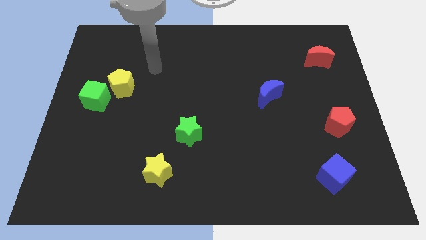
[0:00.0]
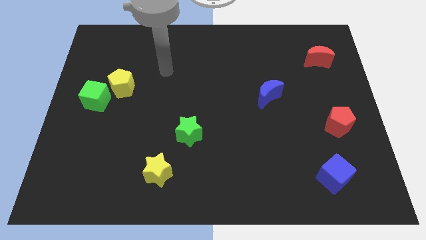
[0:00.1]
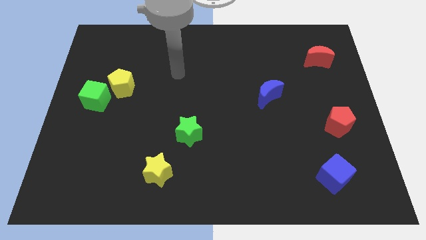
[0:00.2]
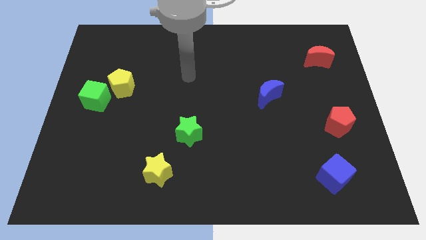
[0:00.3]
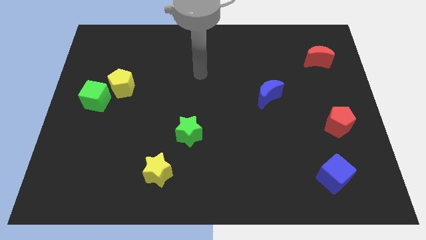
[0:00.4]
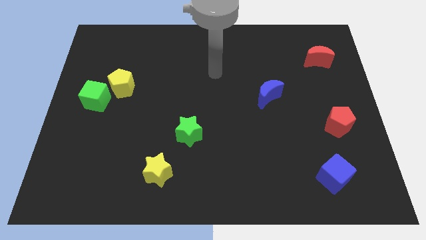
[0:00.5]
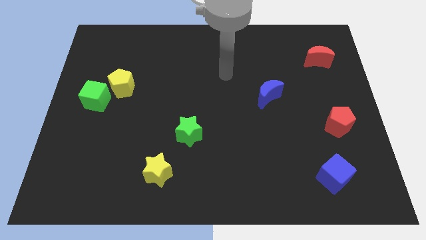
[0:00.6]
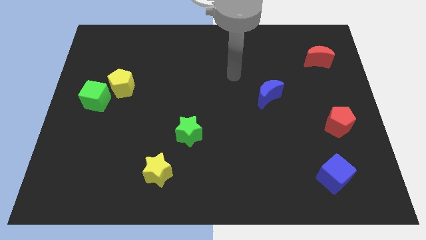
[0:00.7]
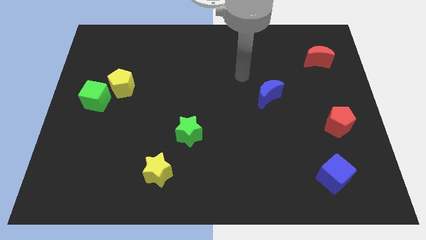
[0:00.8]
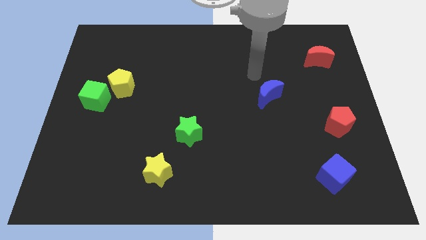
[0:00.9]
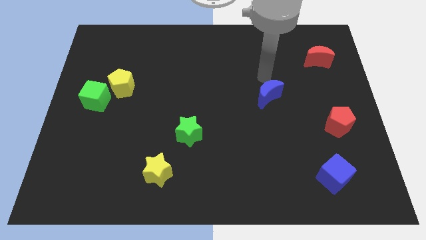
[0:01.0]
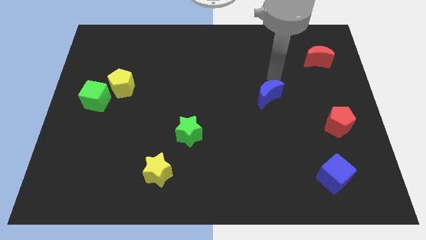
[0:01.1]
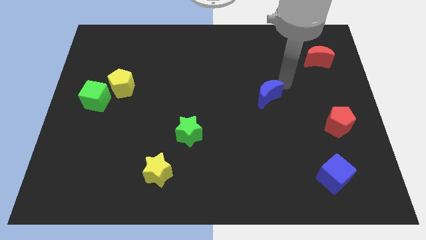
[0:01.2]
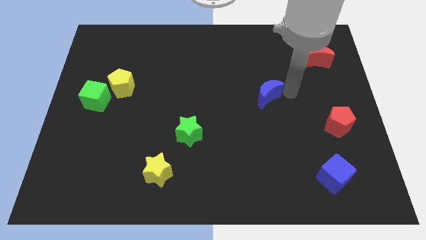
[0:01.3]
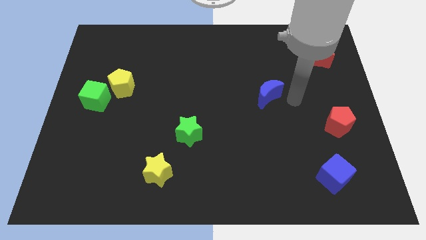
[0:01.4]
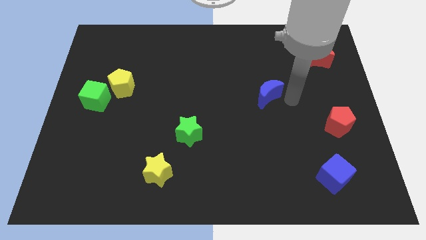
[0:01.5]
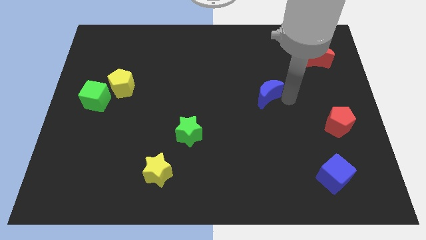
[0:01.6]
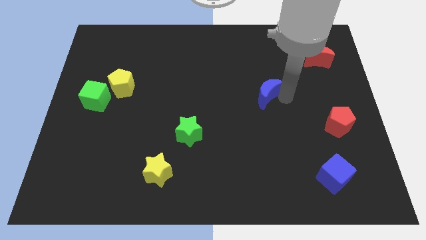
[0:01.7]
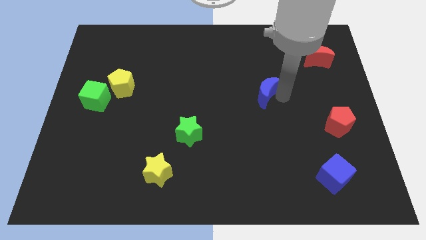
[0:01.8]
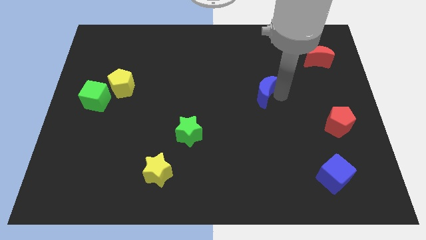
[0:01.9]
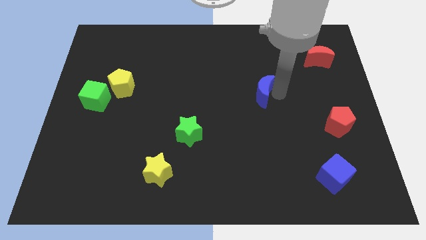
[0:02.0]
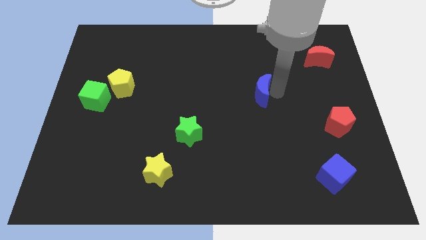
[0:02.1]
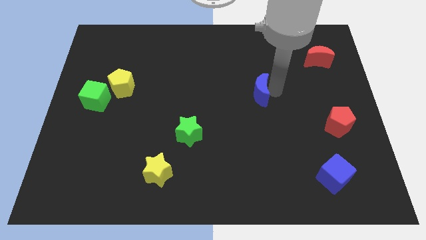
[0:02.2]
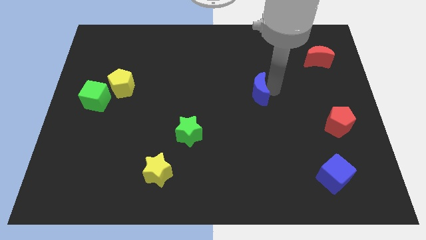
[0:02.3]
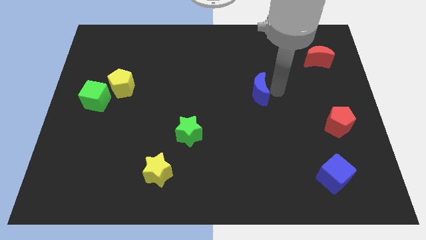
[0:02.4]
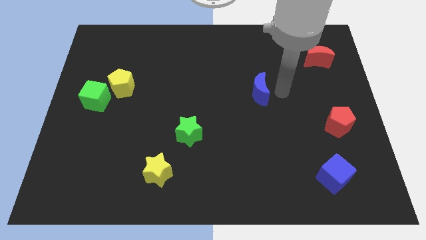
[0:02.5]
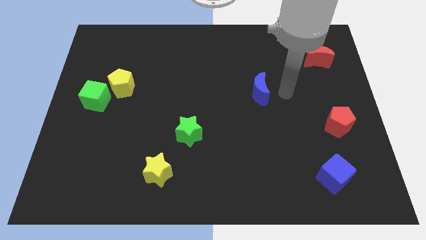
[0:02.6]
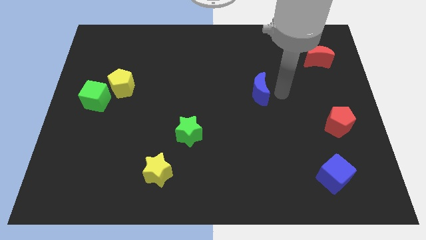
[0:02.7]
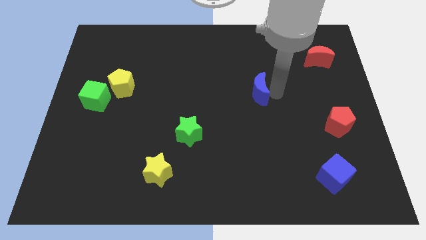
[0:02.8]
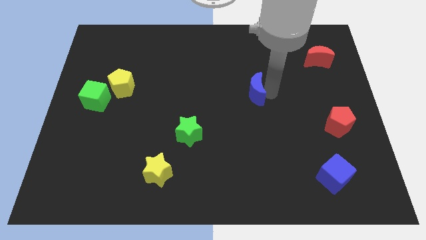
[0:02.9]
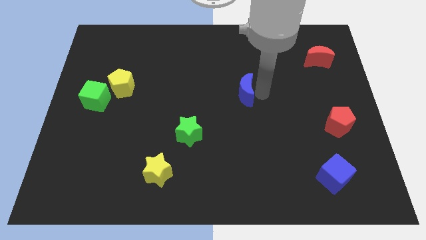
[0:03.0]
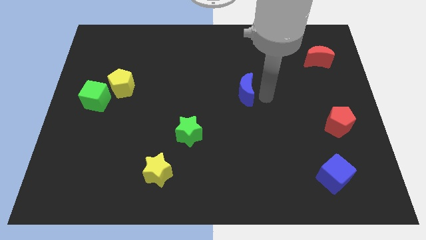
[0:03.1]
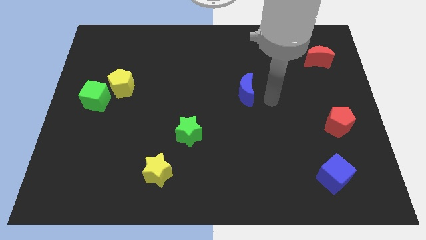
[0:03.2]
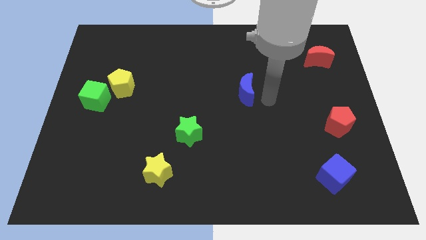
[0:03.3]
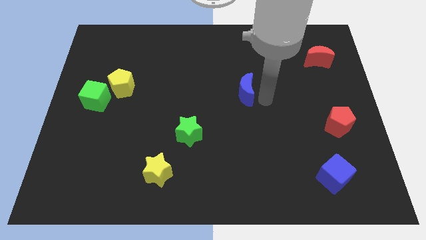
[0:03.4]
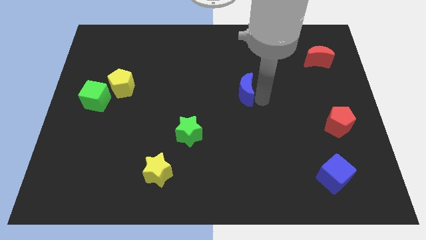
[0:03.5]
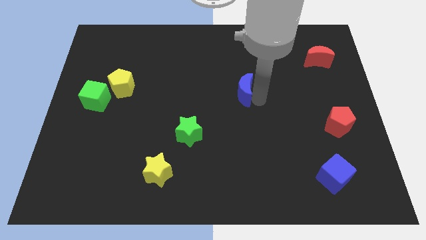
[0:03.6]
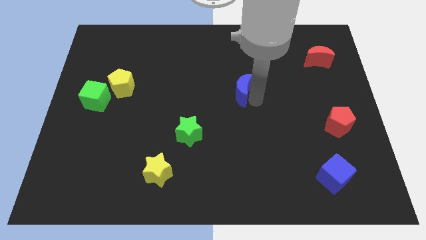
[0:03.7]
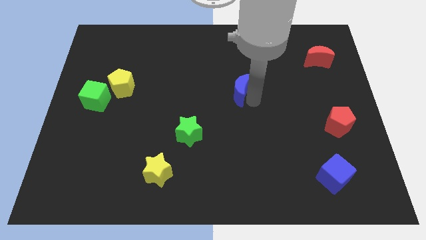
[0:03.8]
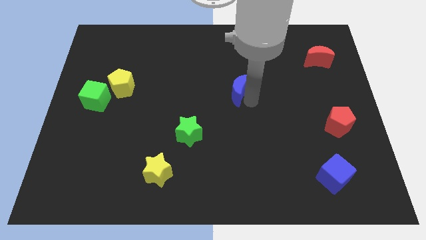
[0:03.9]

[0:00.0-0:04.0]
move the blue moon a little bit left

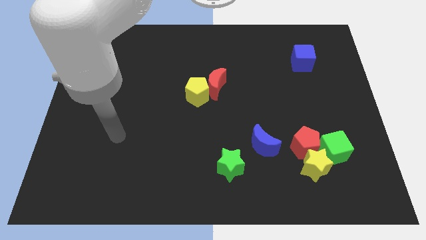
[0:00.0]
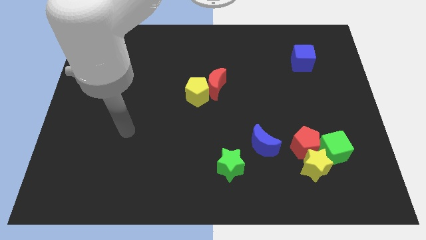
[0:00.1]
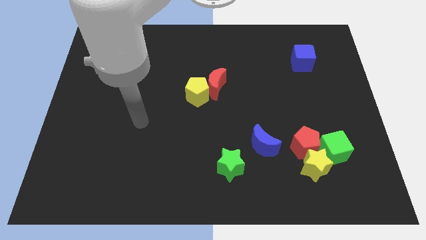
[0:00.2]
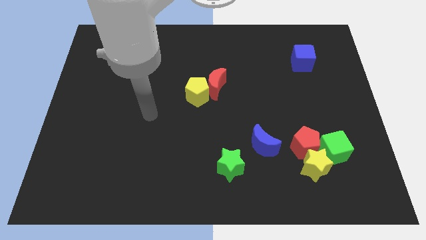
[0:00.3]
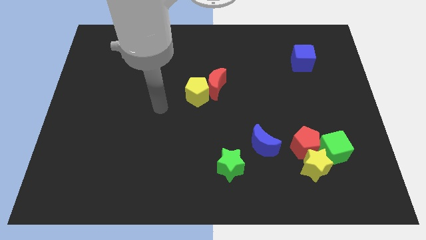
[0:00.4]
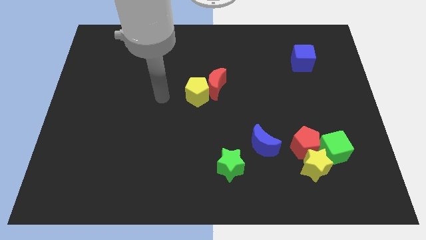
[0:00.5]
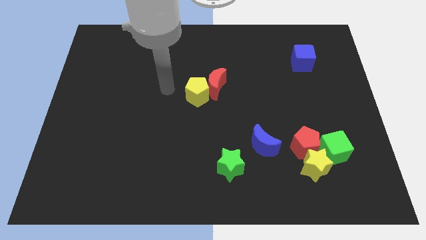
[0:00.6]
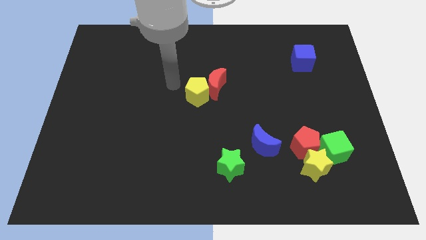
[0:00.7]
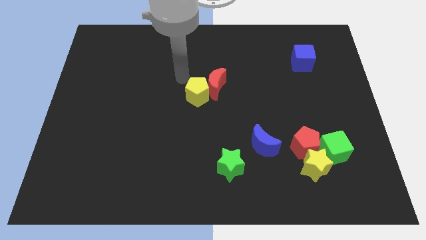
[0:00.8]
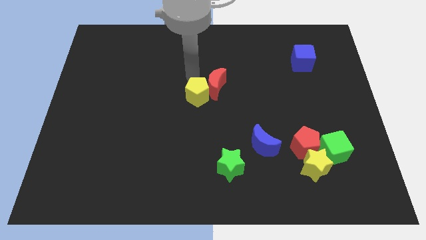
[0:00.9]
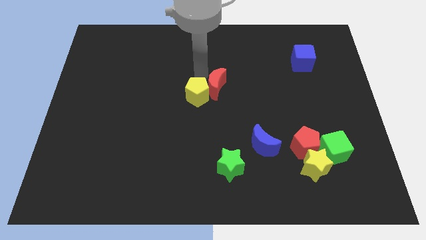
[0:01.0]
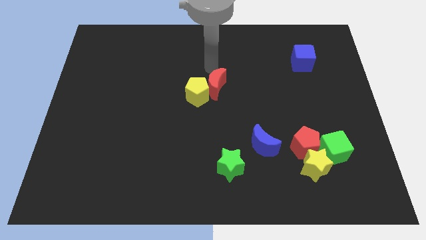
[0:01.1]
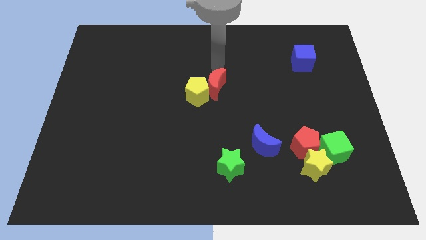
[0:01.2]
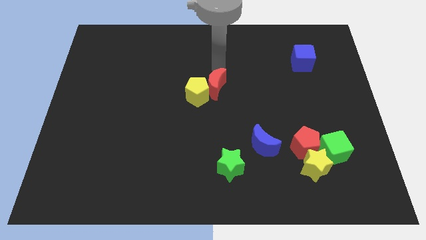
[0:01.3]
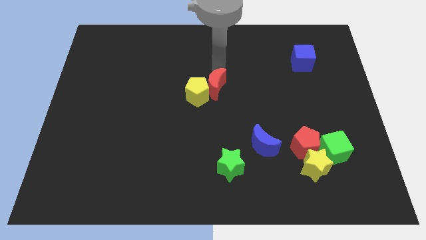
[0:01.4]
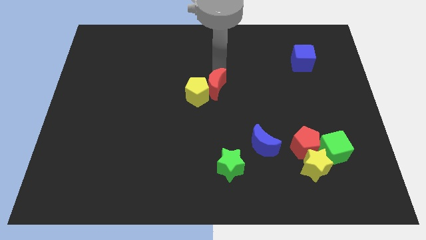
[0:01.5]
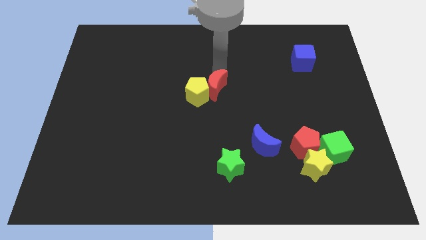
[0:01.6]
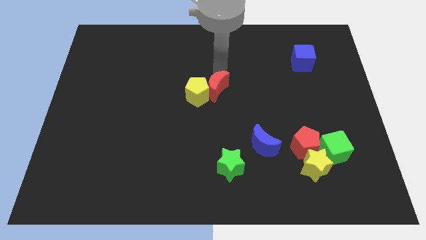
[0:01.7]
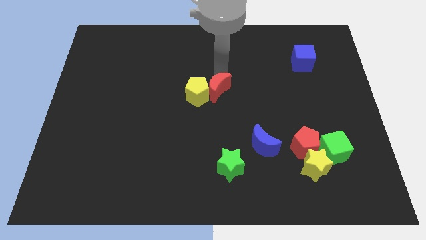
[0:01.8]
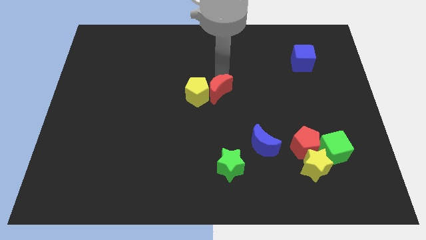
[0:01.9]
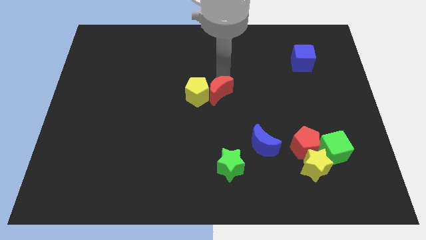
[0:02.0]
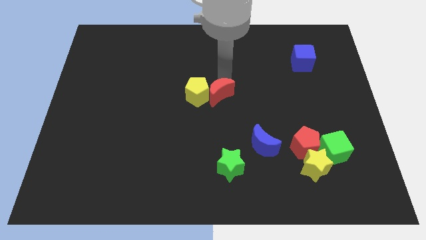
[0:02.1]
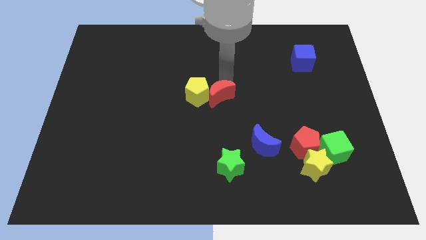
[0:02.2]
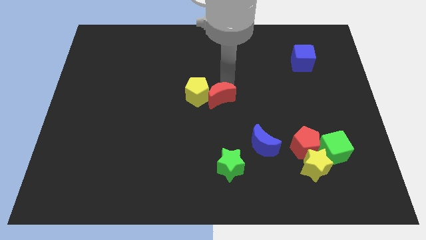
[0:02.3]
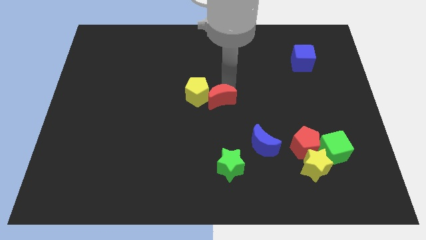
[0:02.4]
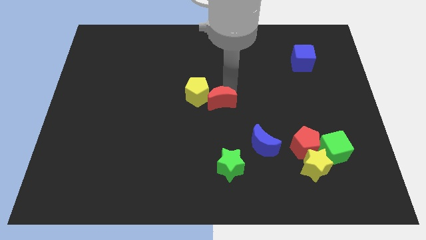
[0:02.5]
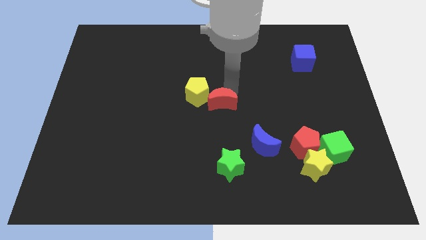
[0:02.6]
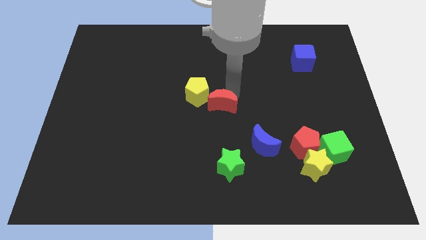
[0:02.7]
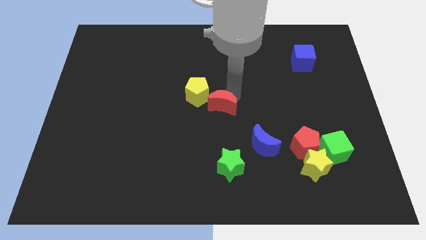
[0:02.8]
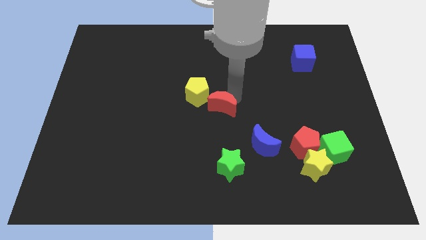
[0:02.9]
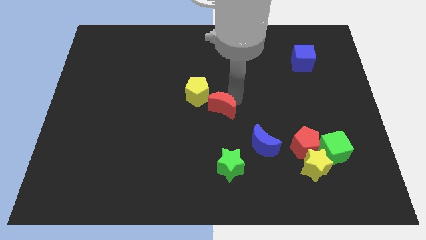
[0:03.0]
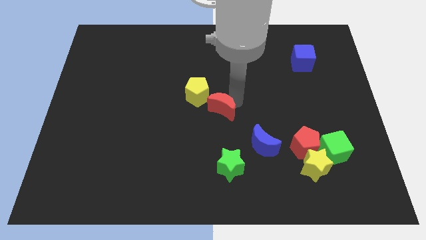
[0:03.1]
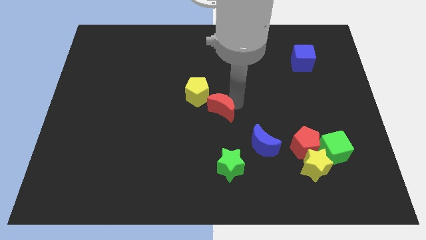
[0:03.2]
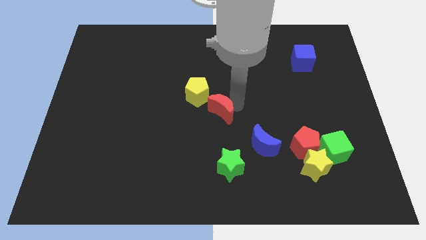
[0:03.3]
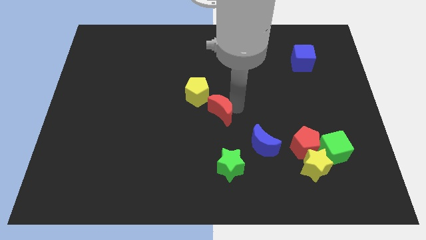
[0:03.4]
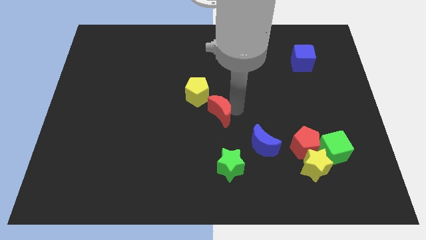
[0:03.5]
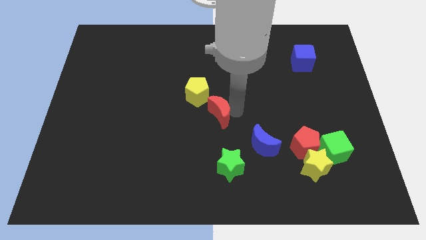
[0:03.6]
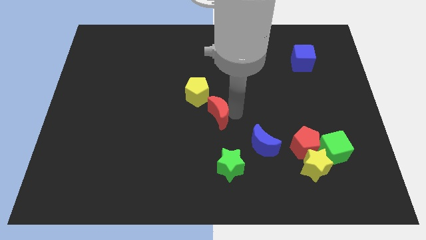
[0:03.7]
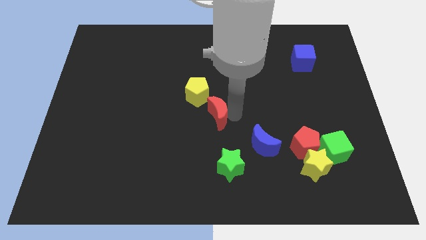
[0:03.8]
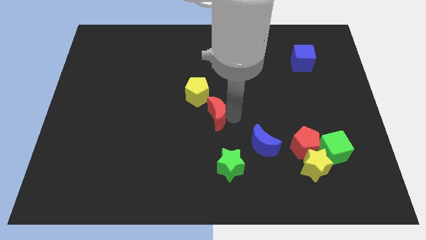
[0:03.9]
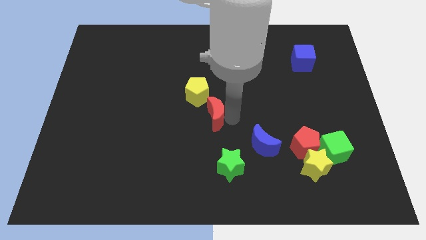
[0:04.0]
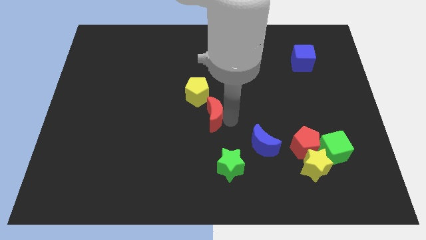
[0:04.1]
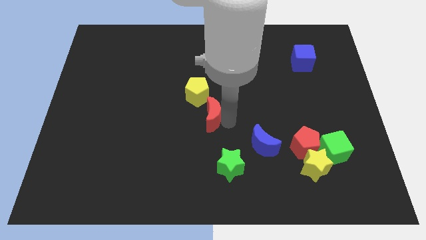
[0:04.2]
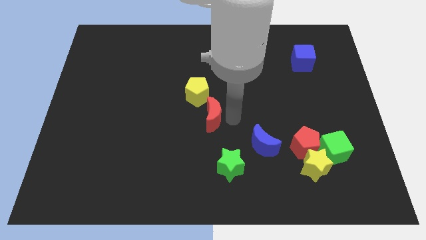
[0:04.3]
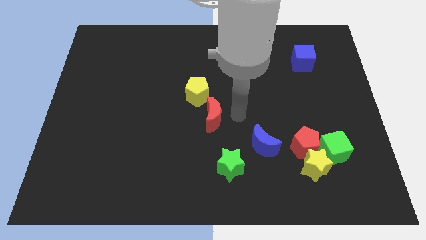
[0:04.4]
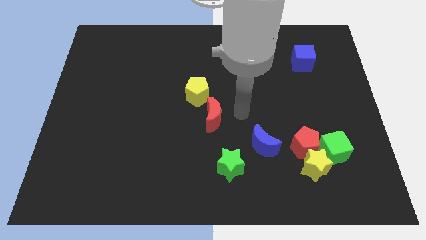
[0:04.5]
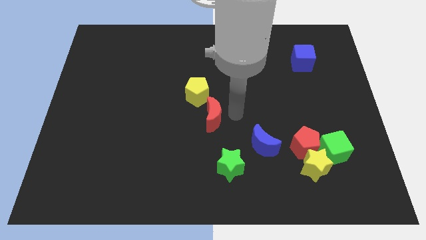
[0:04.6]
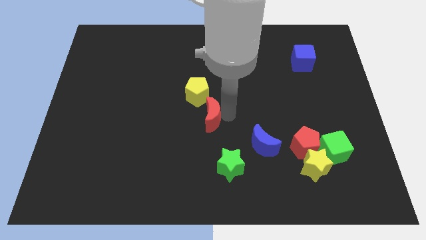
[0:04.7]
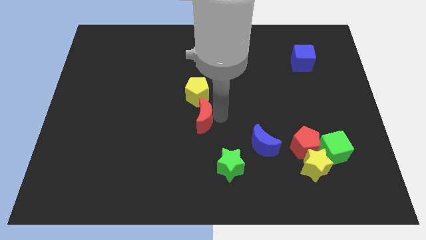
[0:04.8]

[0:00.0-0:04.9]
slightly move the red moon downwards and left
